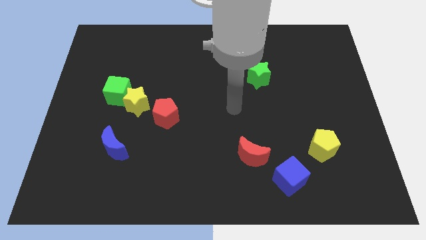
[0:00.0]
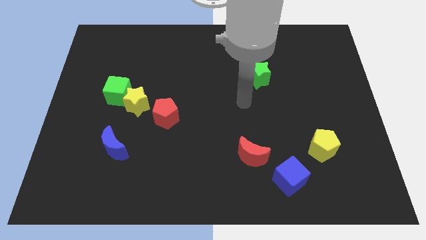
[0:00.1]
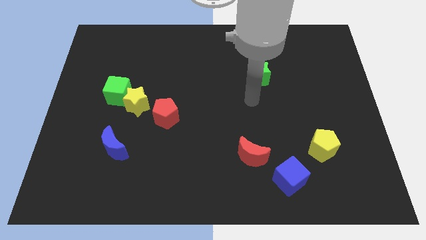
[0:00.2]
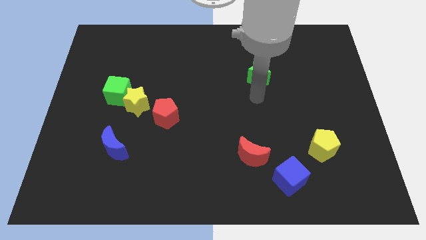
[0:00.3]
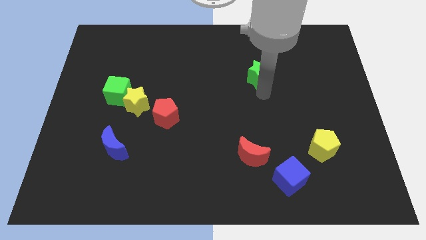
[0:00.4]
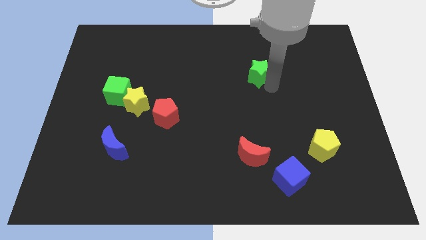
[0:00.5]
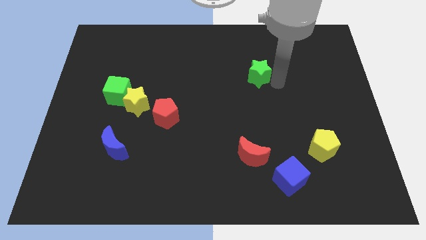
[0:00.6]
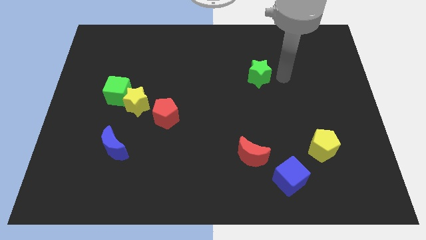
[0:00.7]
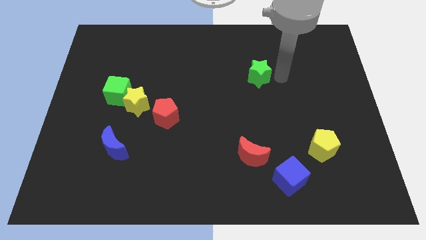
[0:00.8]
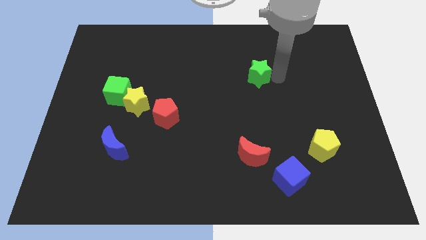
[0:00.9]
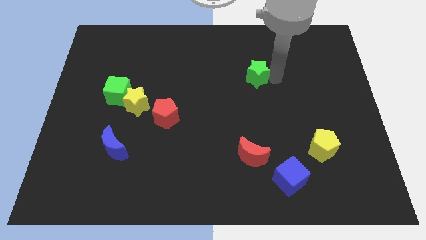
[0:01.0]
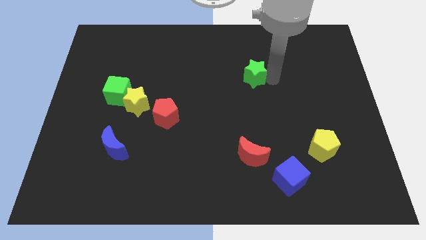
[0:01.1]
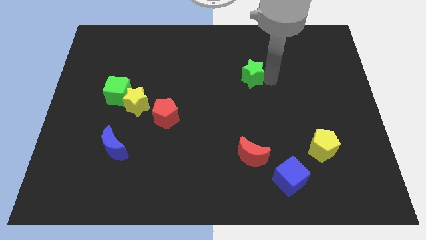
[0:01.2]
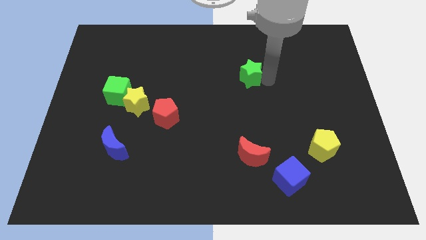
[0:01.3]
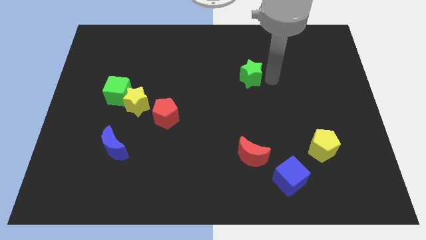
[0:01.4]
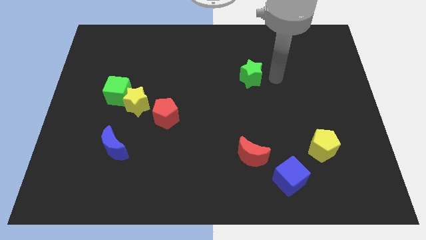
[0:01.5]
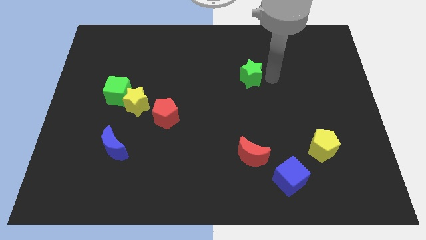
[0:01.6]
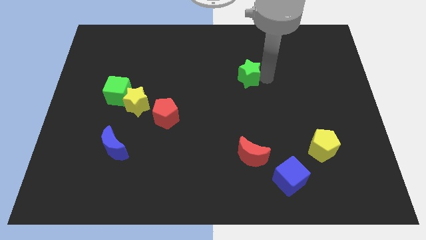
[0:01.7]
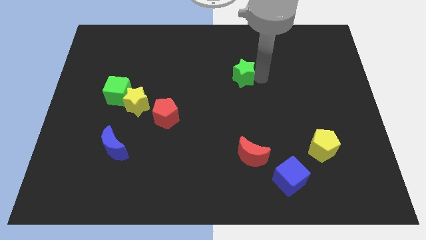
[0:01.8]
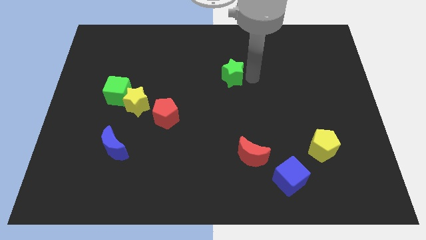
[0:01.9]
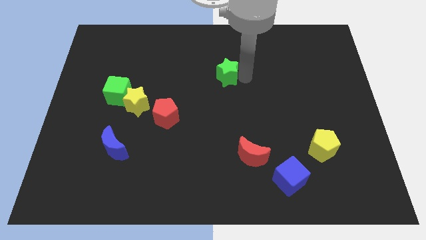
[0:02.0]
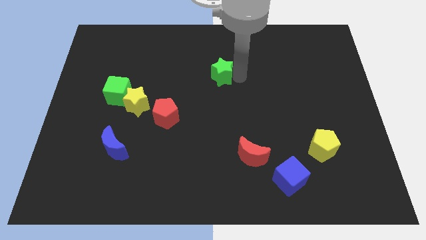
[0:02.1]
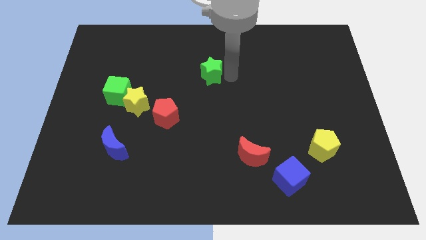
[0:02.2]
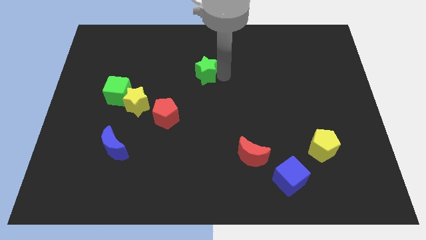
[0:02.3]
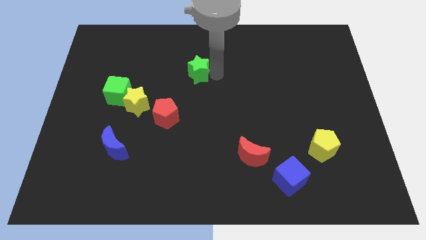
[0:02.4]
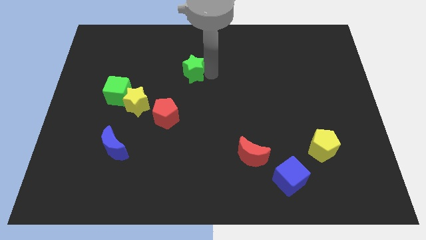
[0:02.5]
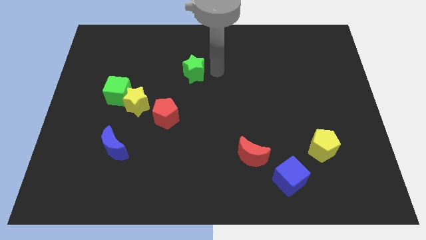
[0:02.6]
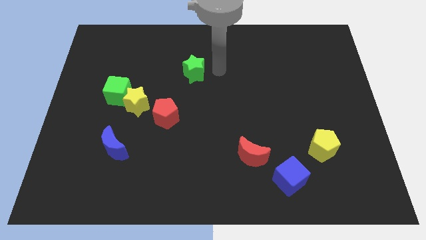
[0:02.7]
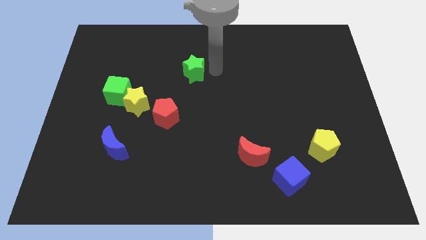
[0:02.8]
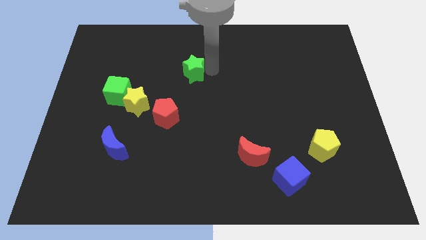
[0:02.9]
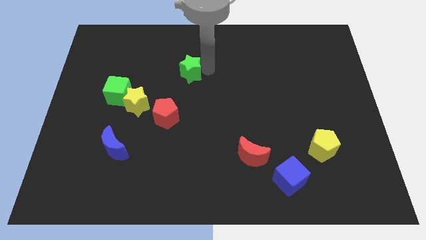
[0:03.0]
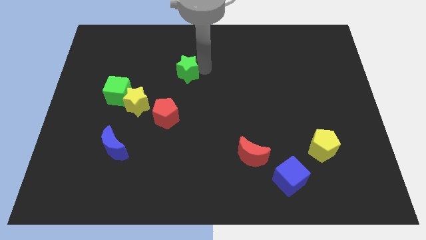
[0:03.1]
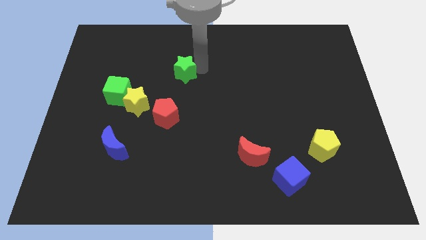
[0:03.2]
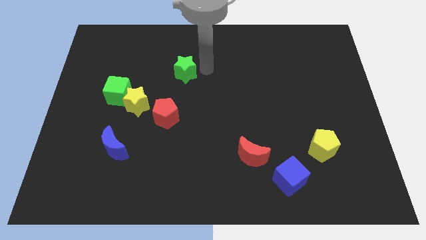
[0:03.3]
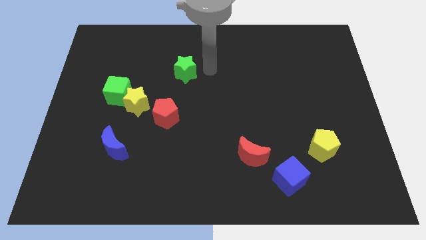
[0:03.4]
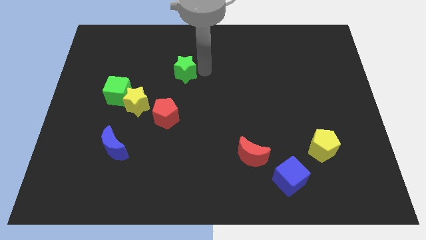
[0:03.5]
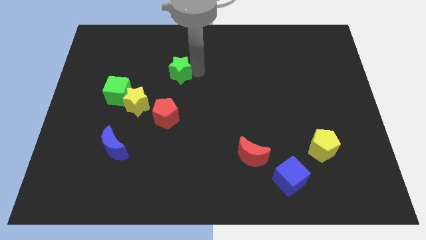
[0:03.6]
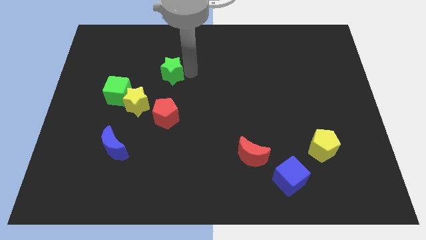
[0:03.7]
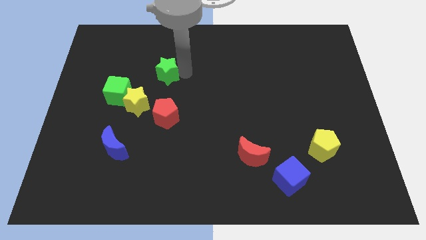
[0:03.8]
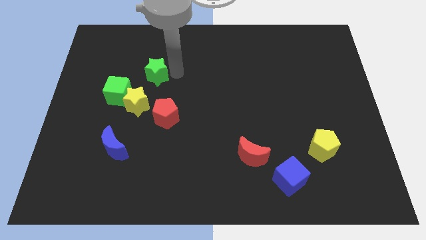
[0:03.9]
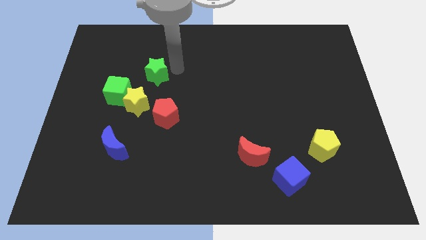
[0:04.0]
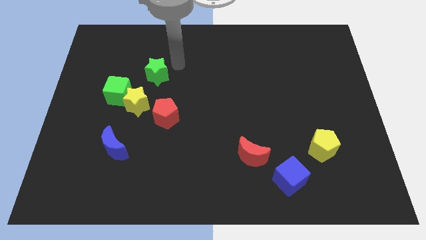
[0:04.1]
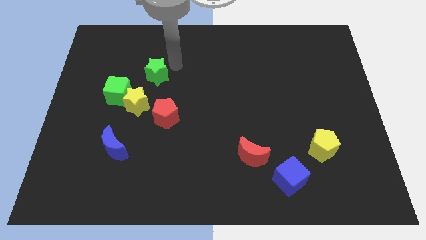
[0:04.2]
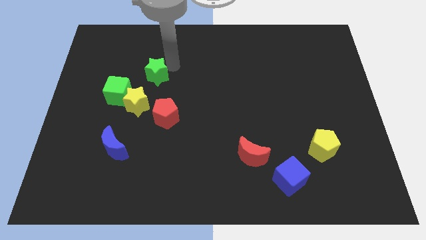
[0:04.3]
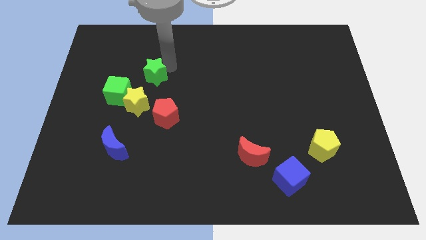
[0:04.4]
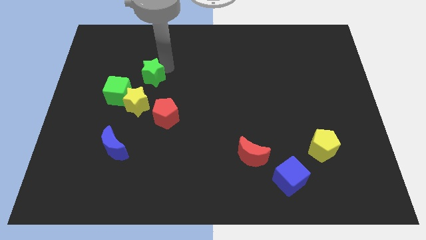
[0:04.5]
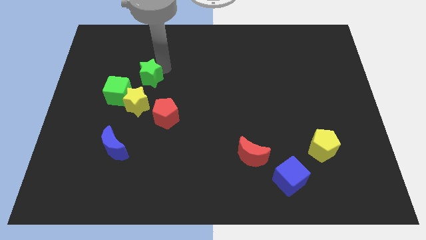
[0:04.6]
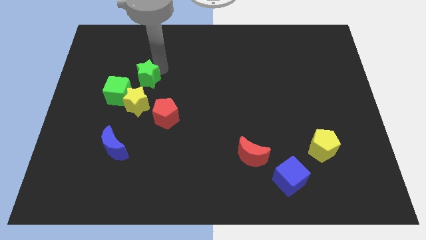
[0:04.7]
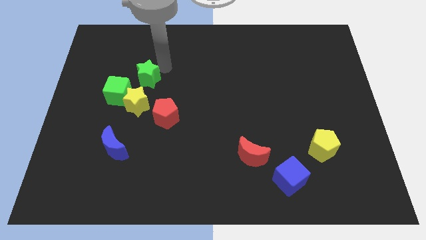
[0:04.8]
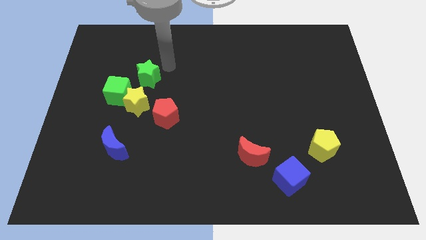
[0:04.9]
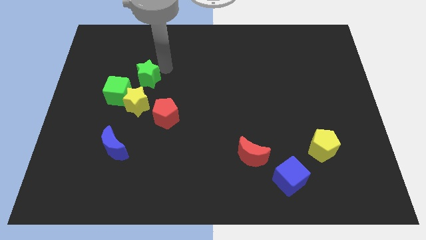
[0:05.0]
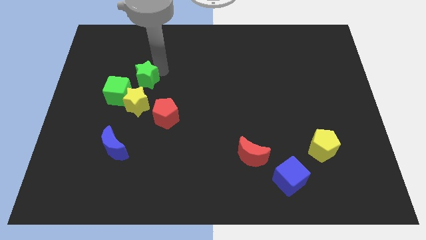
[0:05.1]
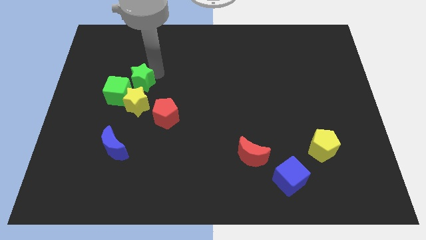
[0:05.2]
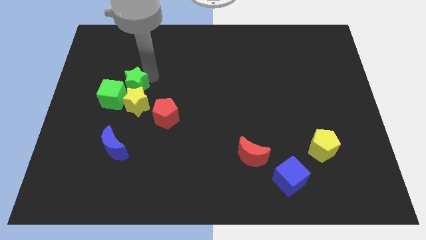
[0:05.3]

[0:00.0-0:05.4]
put the green star to the green cube

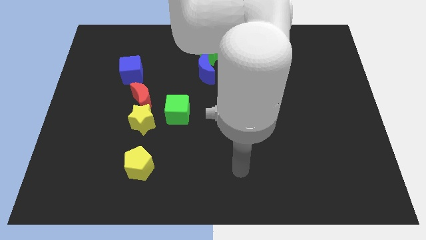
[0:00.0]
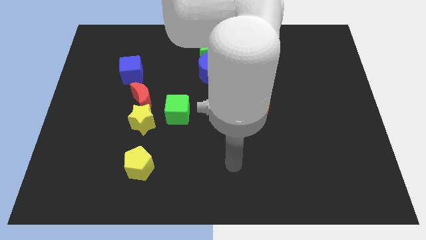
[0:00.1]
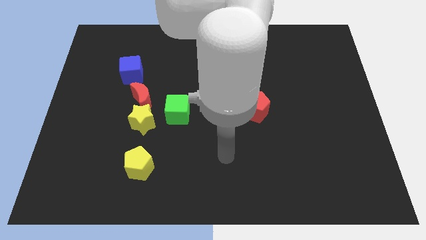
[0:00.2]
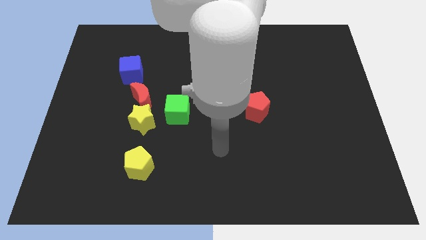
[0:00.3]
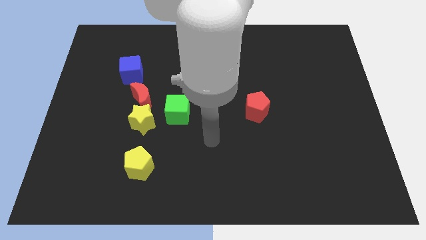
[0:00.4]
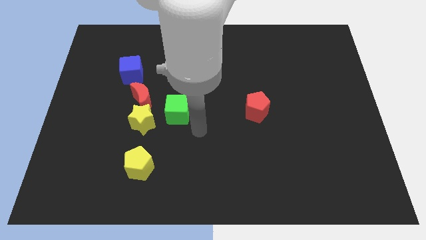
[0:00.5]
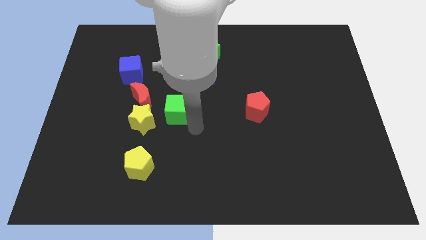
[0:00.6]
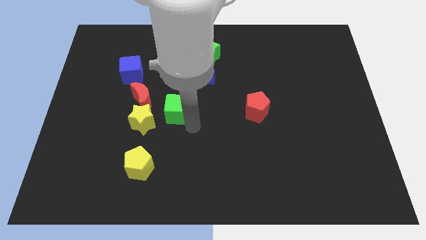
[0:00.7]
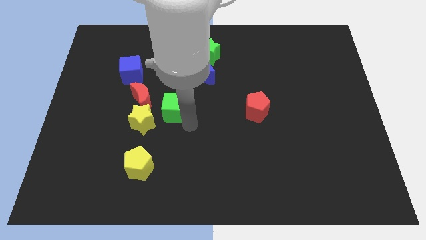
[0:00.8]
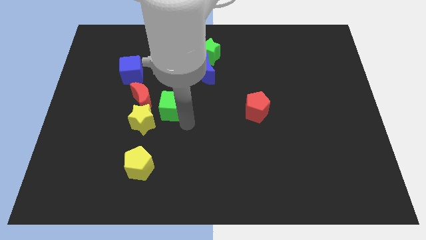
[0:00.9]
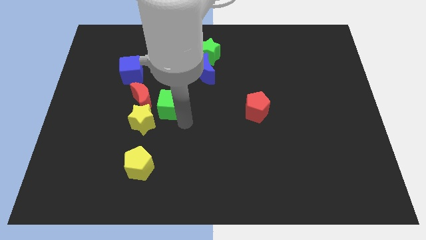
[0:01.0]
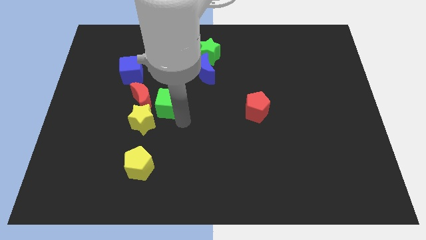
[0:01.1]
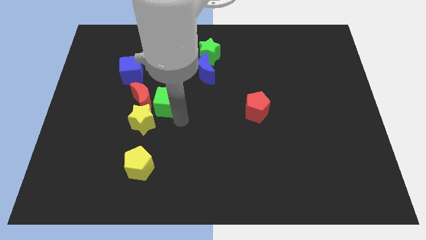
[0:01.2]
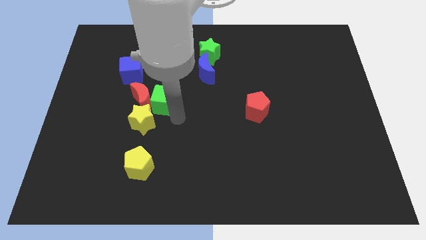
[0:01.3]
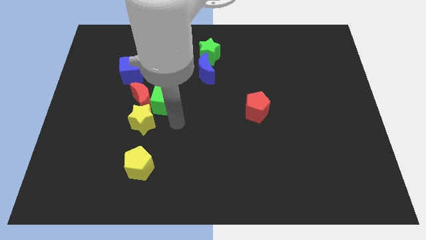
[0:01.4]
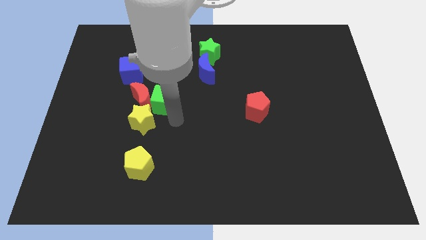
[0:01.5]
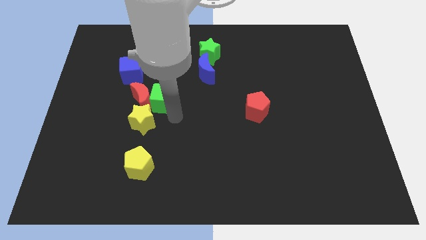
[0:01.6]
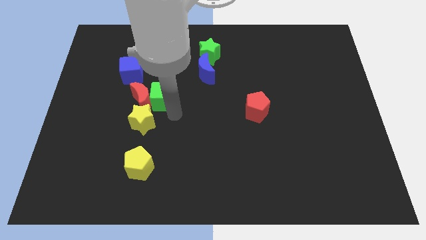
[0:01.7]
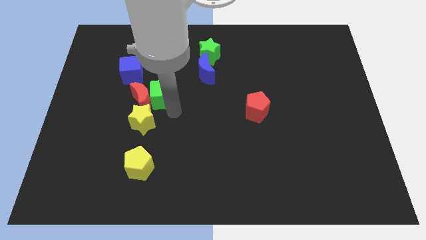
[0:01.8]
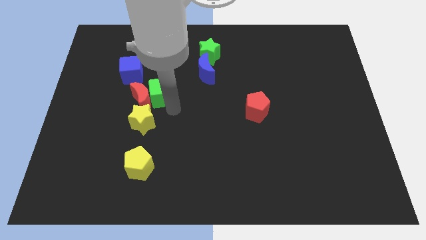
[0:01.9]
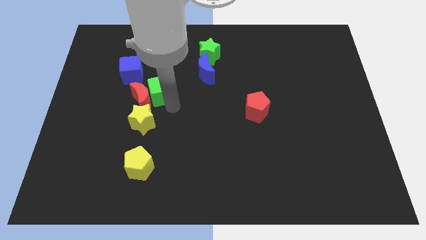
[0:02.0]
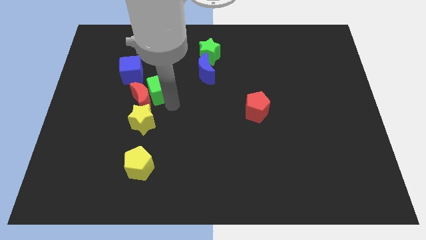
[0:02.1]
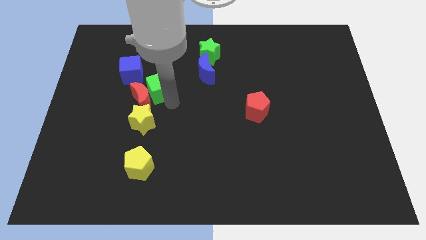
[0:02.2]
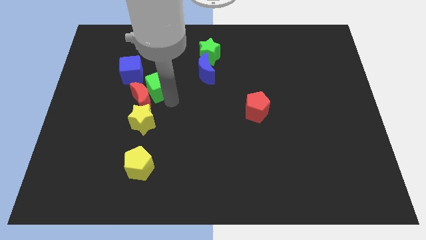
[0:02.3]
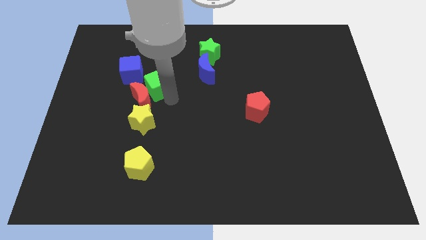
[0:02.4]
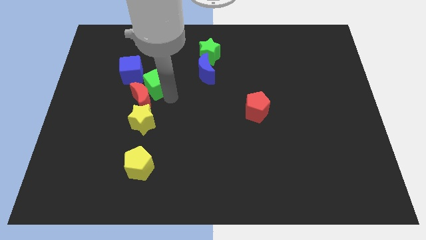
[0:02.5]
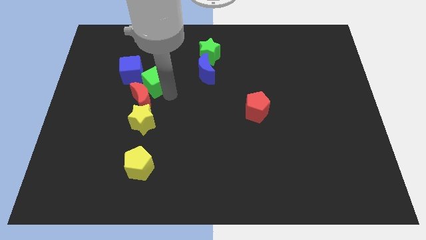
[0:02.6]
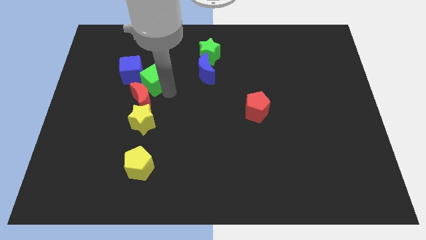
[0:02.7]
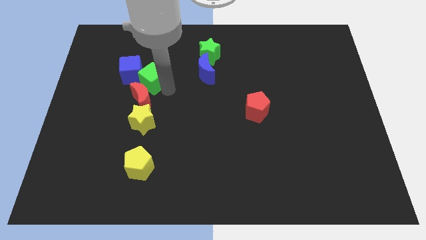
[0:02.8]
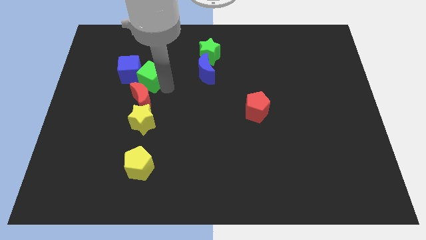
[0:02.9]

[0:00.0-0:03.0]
push the green cube close to the blue cube
